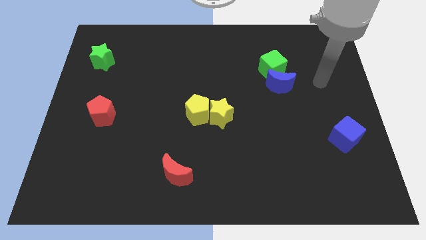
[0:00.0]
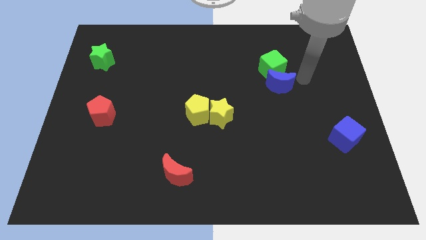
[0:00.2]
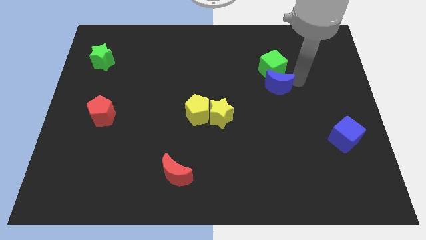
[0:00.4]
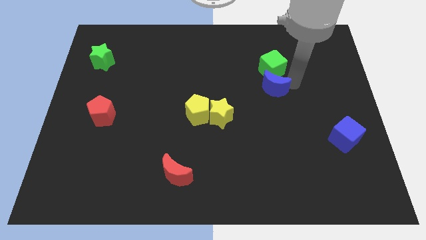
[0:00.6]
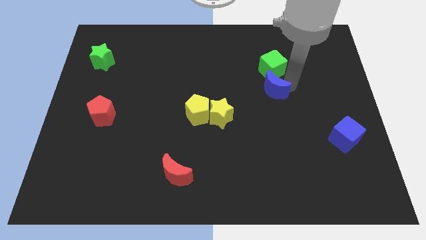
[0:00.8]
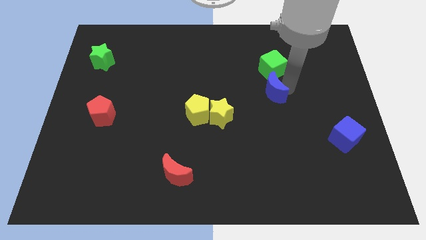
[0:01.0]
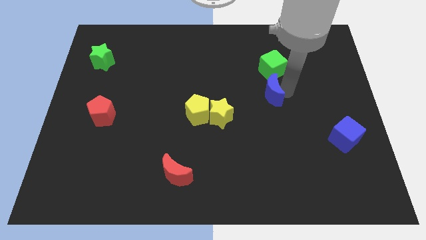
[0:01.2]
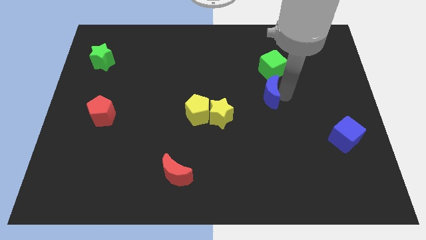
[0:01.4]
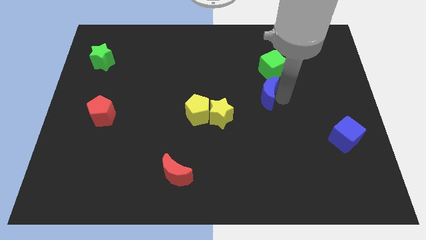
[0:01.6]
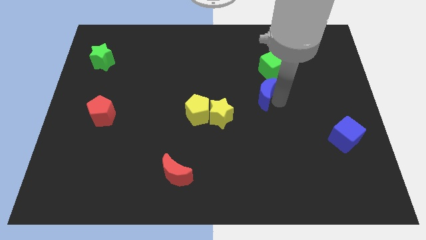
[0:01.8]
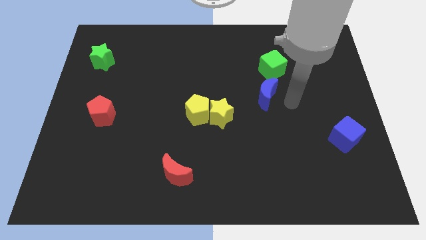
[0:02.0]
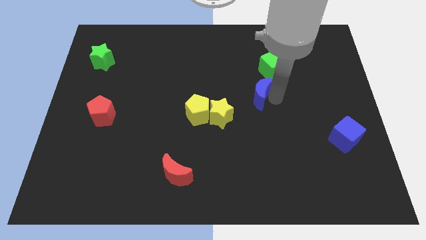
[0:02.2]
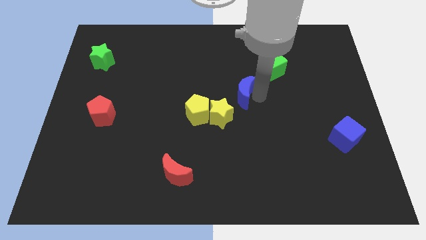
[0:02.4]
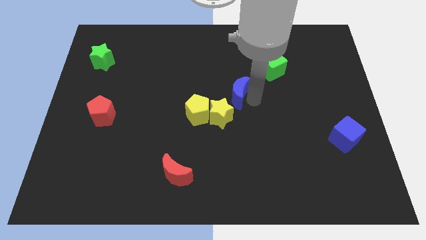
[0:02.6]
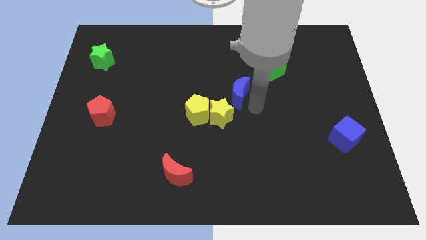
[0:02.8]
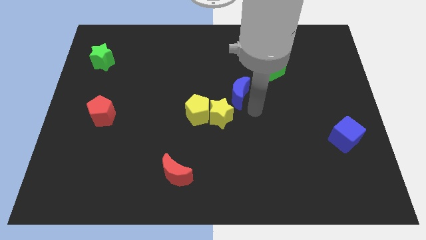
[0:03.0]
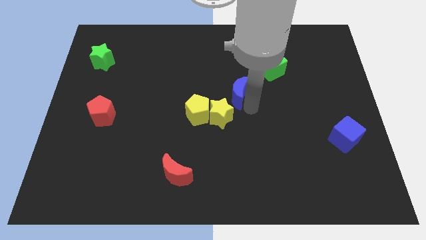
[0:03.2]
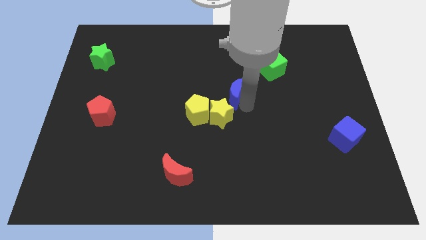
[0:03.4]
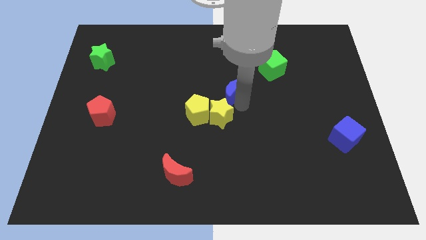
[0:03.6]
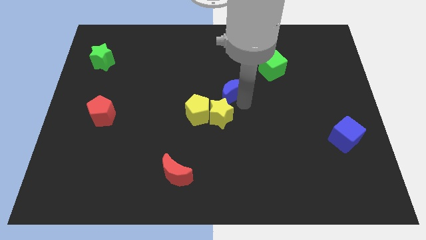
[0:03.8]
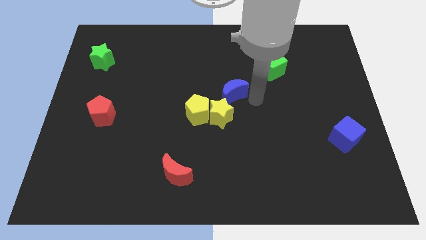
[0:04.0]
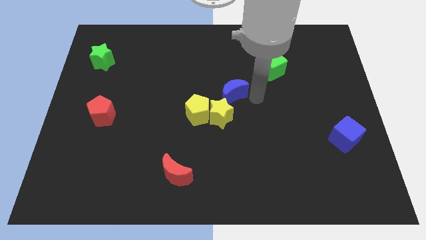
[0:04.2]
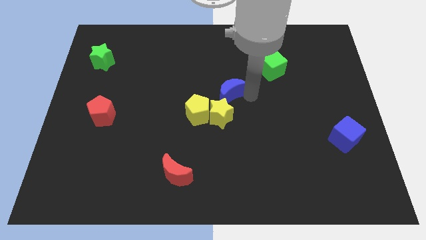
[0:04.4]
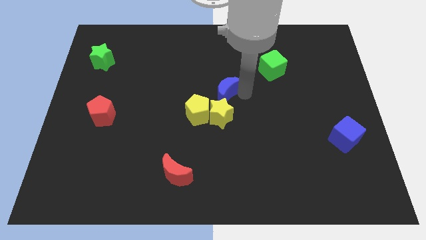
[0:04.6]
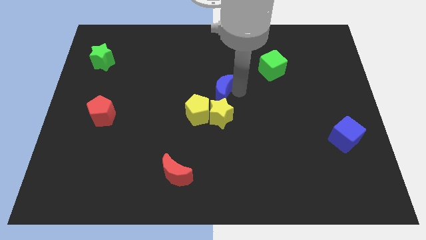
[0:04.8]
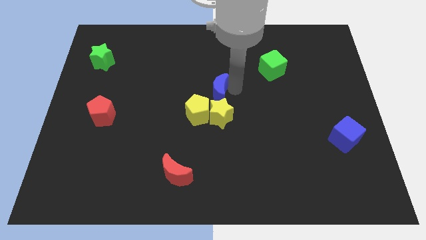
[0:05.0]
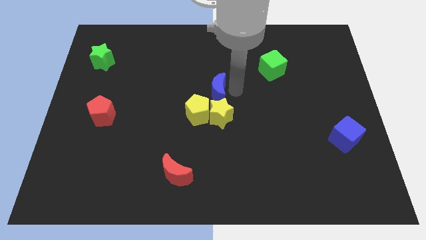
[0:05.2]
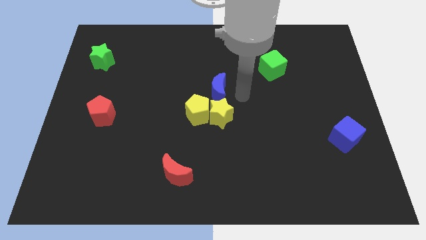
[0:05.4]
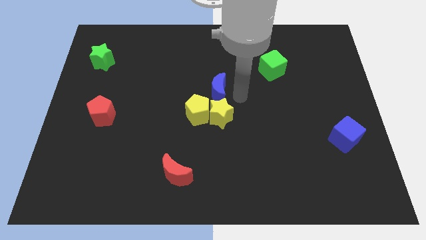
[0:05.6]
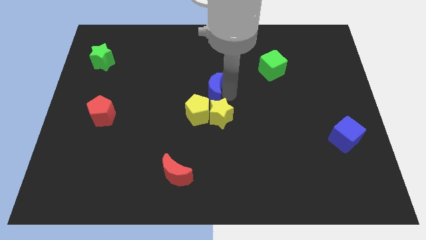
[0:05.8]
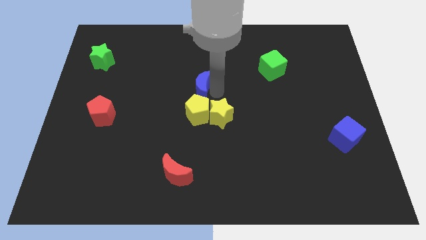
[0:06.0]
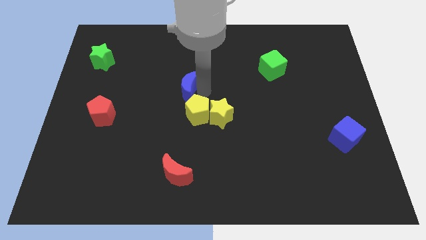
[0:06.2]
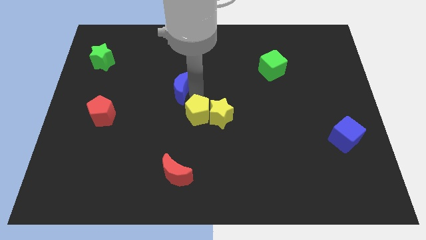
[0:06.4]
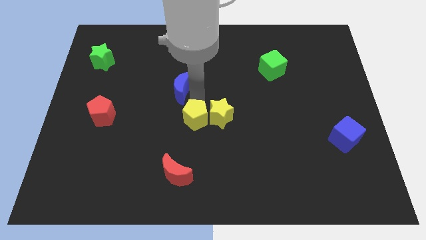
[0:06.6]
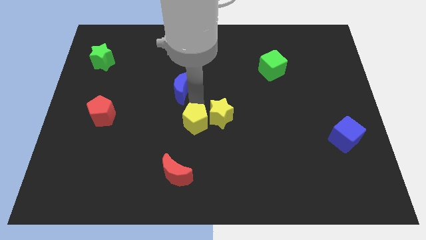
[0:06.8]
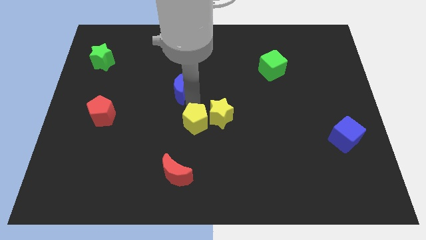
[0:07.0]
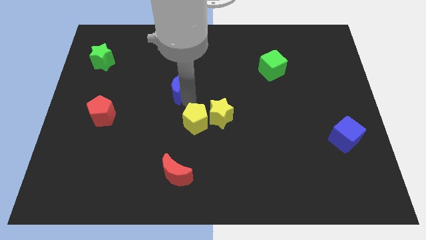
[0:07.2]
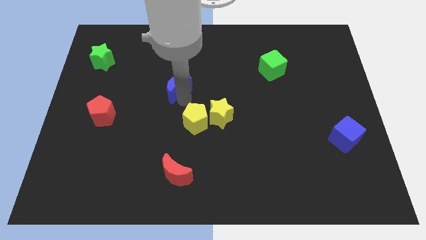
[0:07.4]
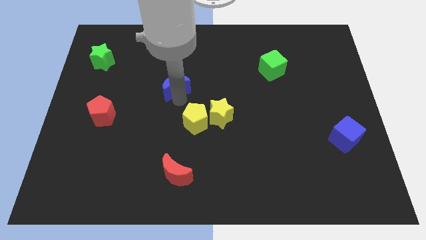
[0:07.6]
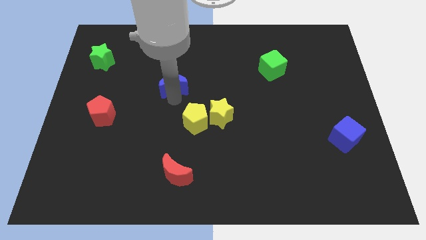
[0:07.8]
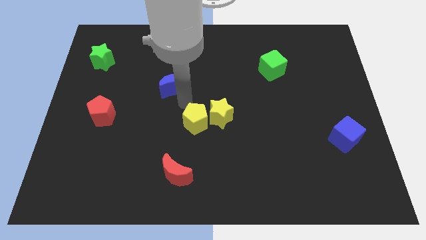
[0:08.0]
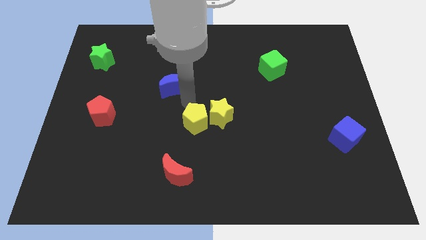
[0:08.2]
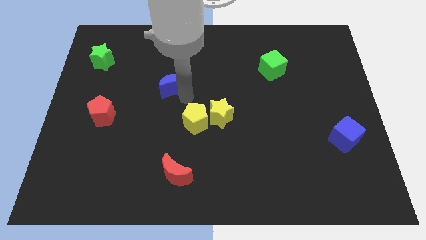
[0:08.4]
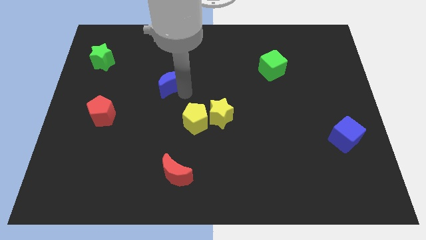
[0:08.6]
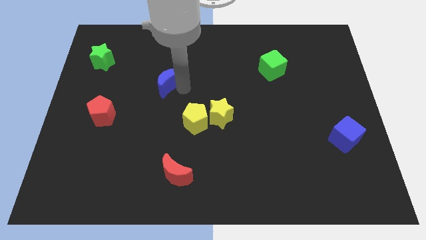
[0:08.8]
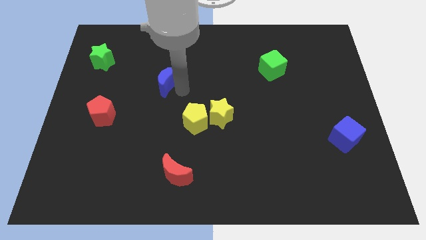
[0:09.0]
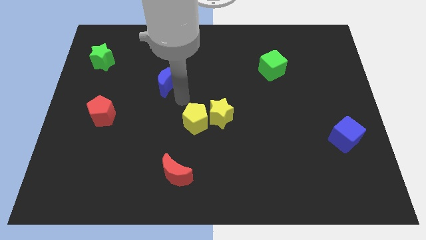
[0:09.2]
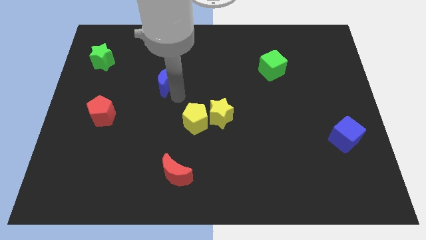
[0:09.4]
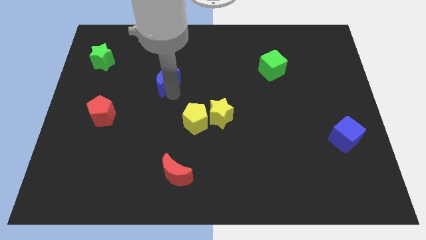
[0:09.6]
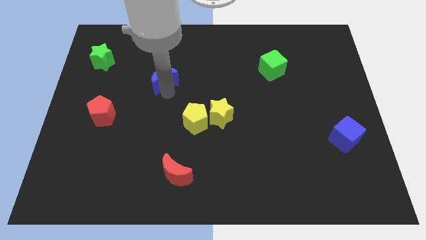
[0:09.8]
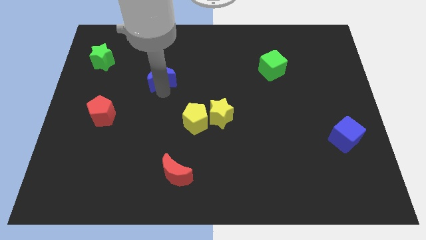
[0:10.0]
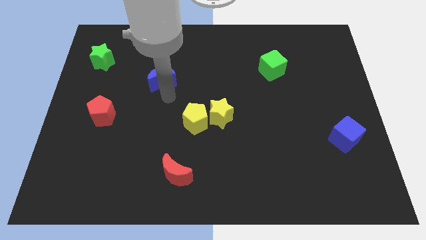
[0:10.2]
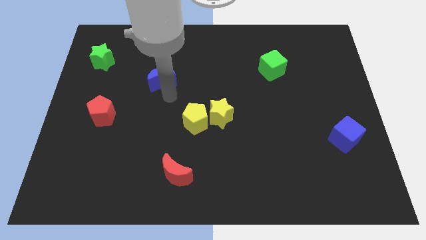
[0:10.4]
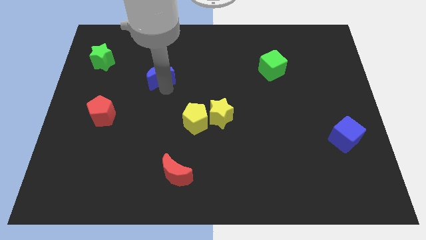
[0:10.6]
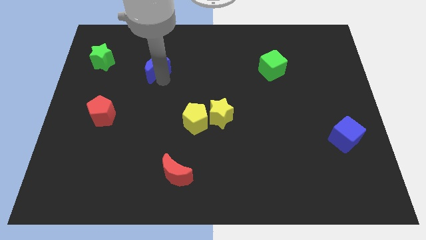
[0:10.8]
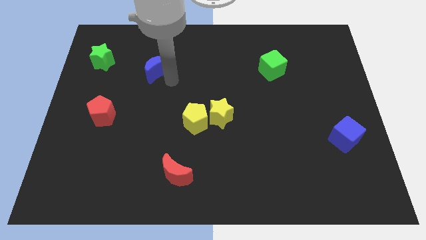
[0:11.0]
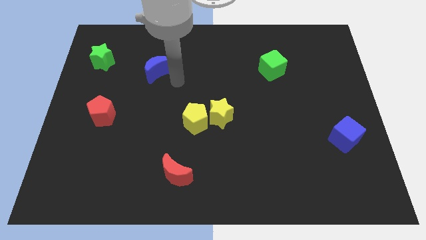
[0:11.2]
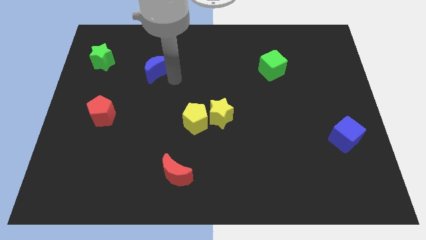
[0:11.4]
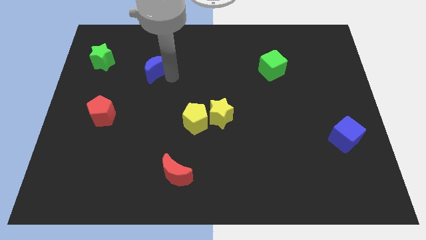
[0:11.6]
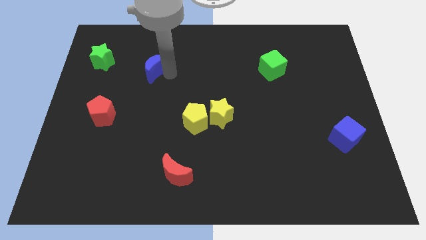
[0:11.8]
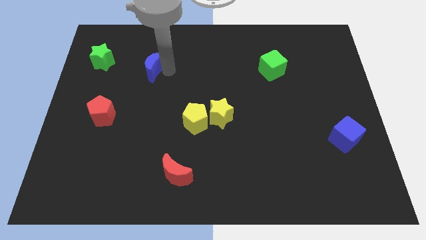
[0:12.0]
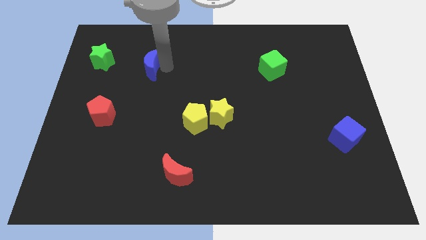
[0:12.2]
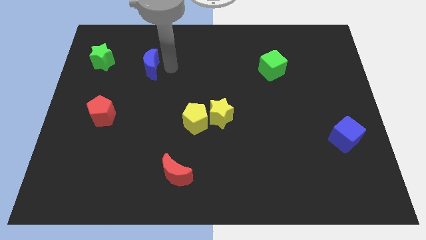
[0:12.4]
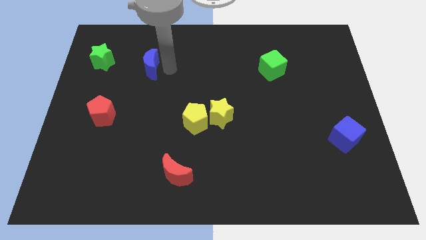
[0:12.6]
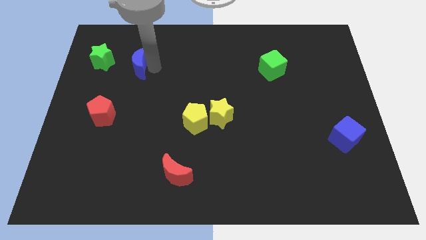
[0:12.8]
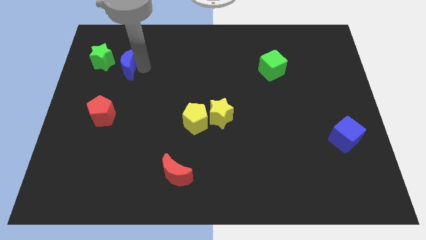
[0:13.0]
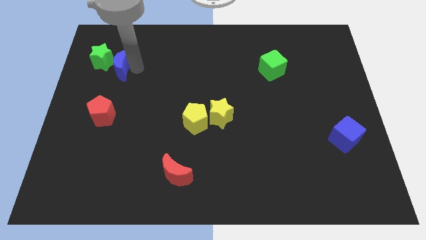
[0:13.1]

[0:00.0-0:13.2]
push the blue moon next to the green star
